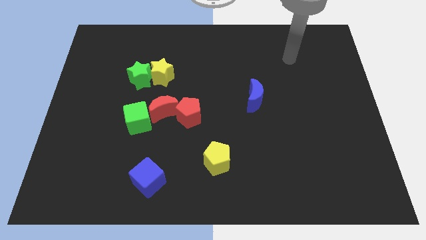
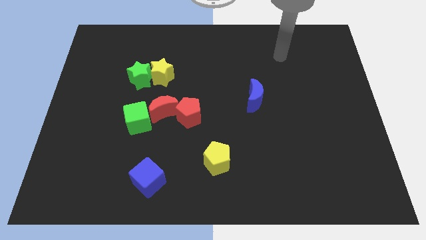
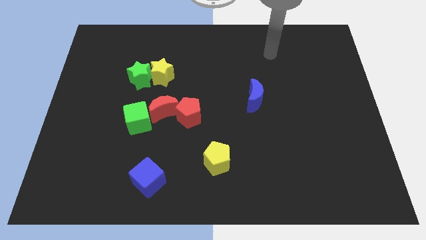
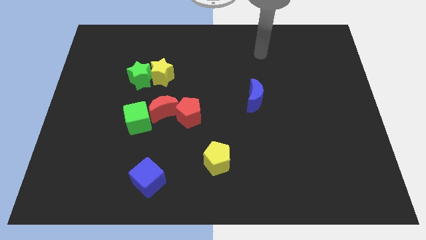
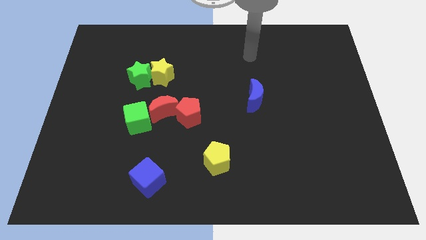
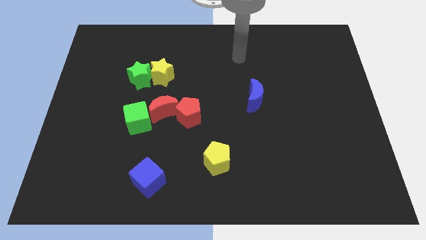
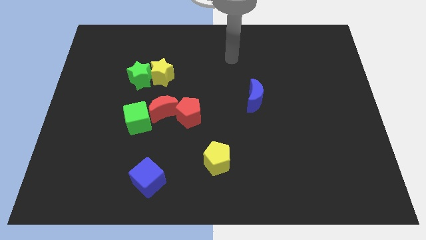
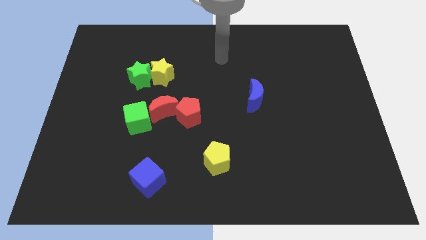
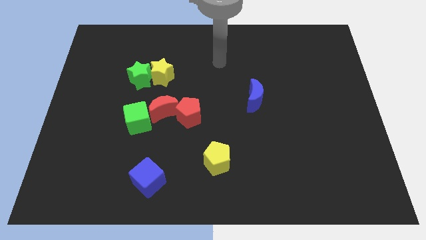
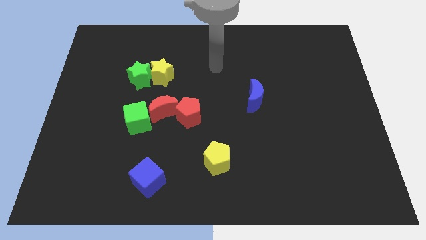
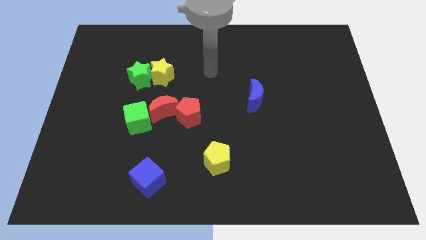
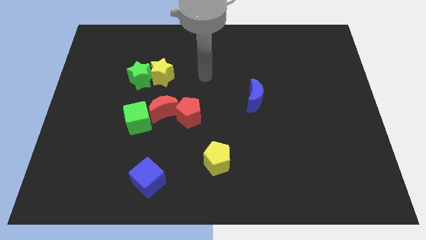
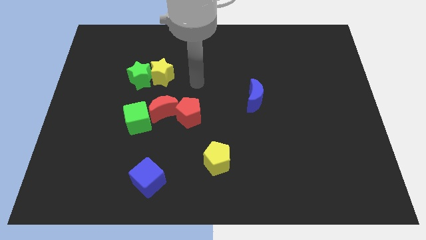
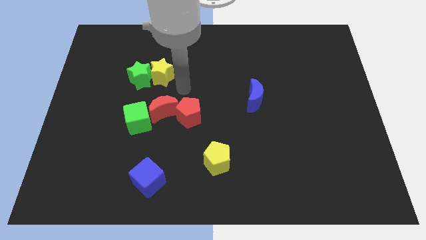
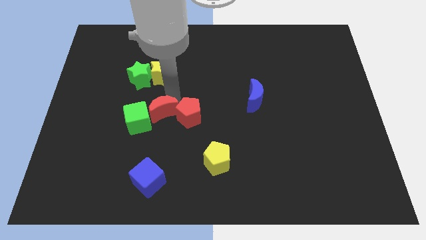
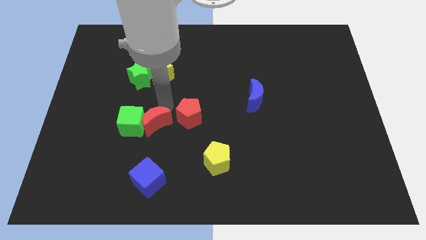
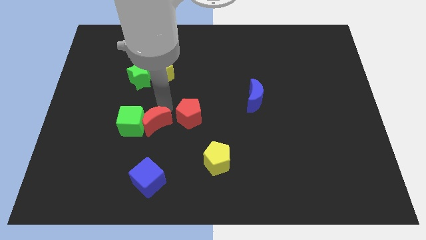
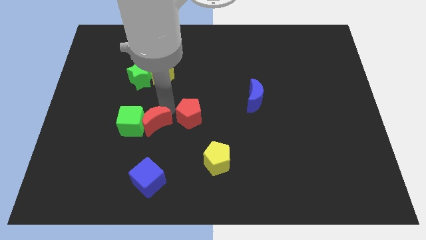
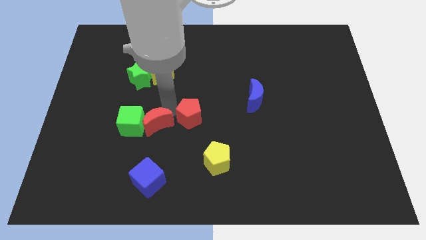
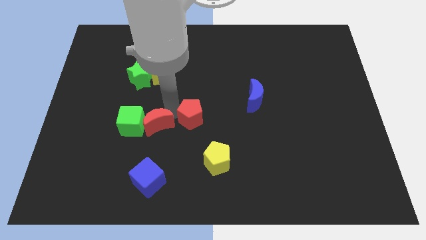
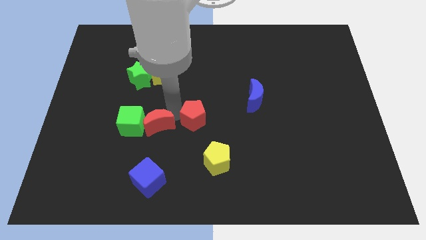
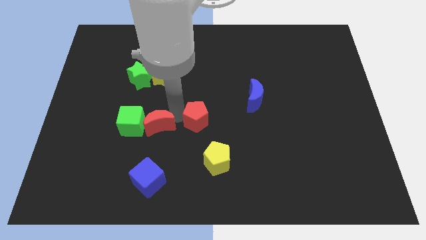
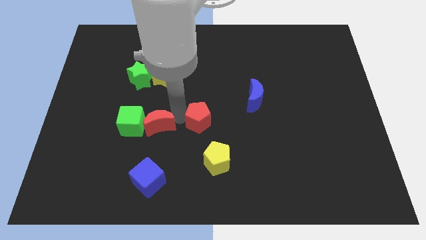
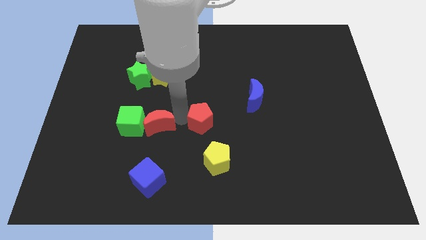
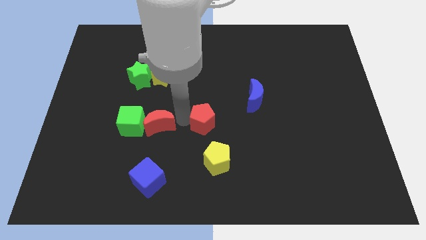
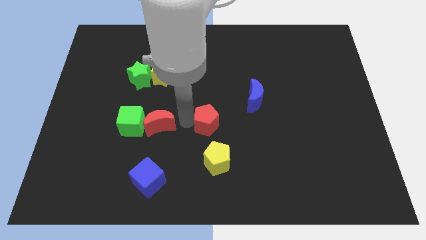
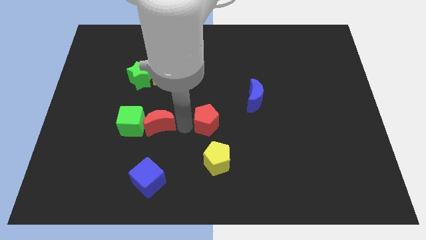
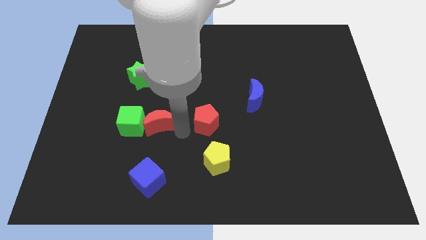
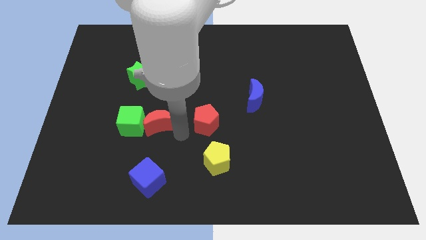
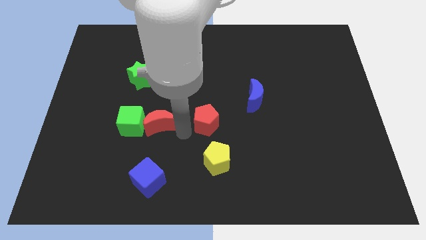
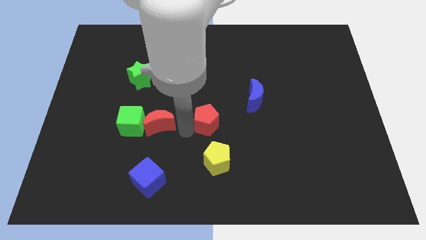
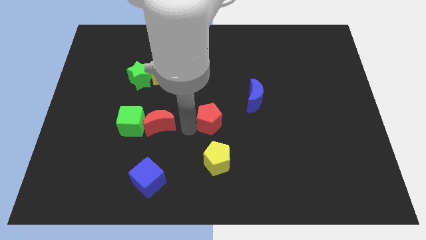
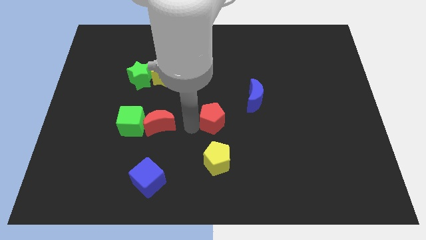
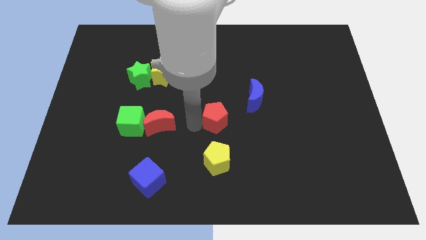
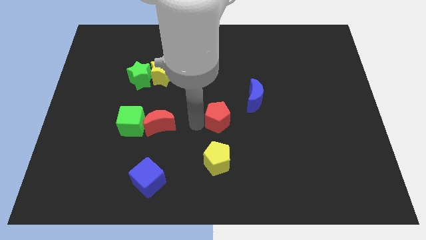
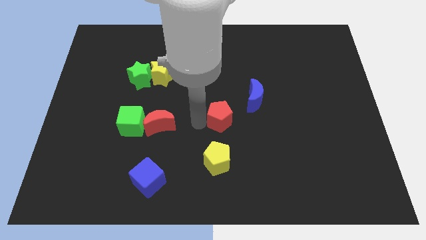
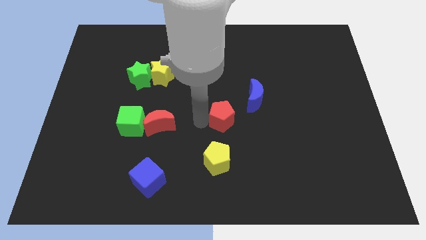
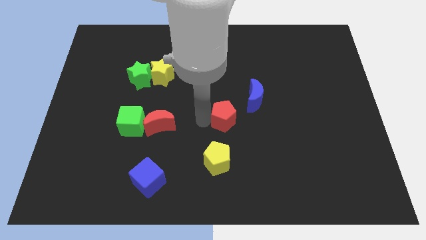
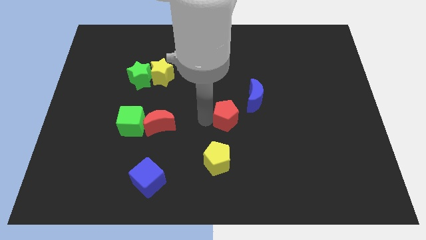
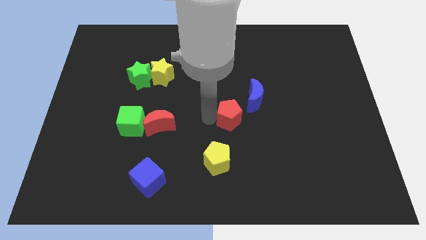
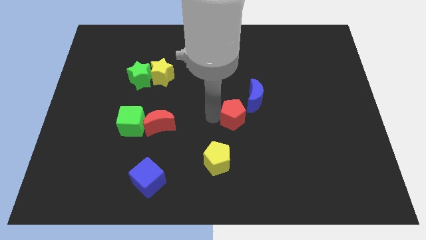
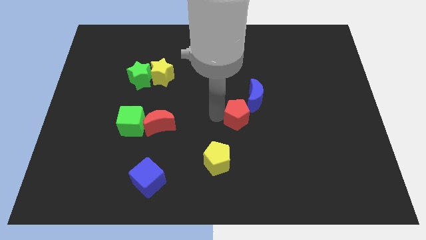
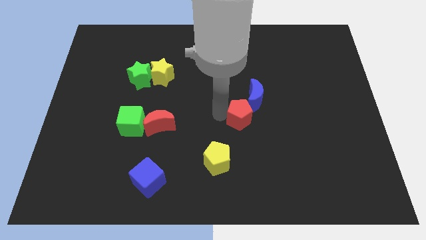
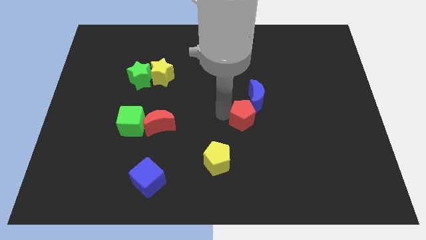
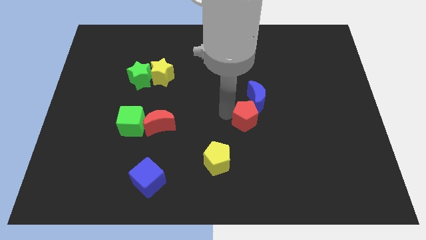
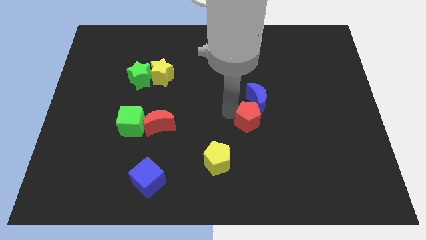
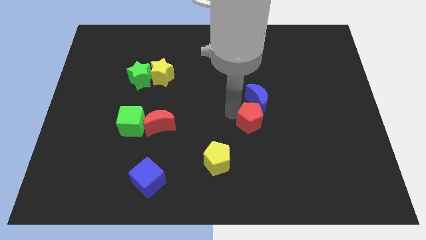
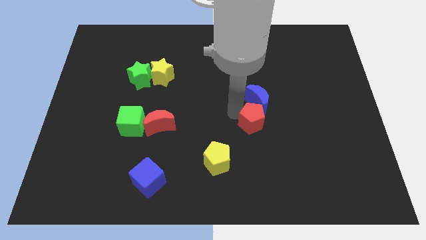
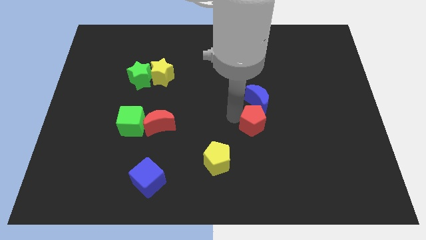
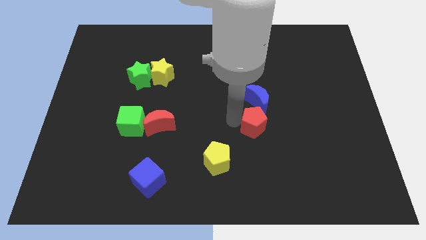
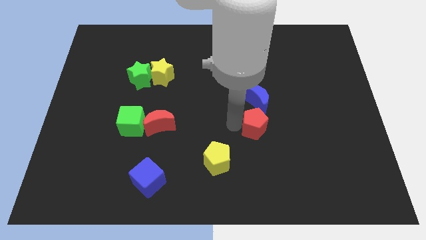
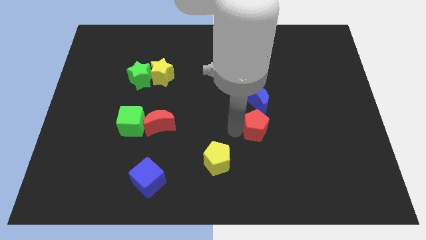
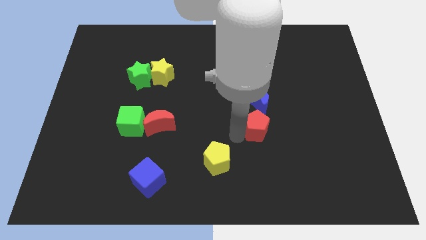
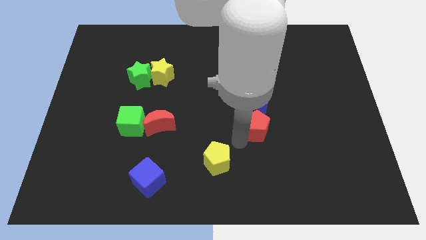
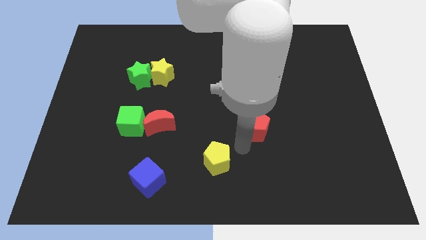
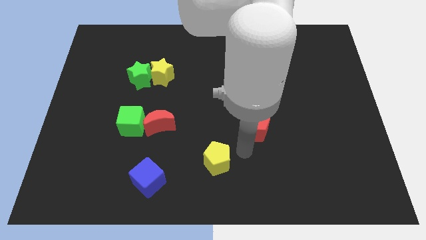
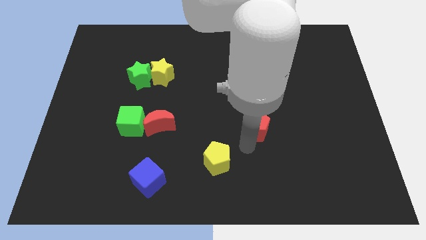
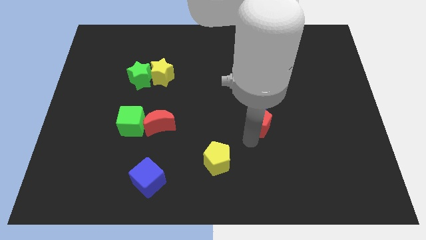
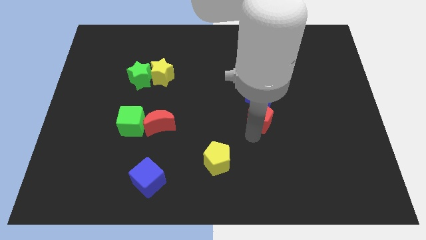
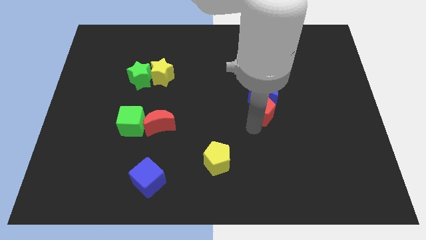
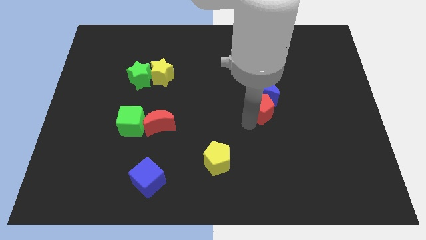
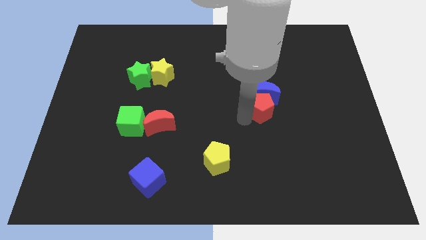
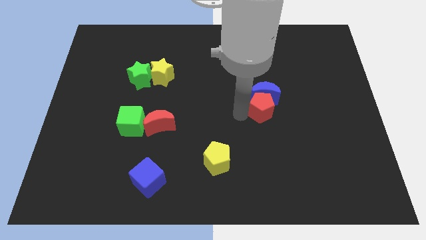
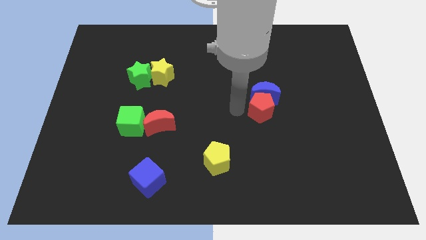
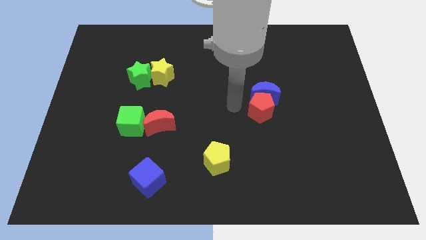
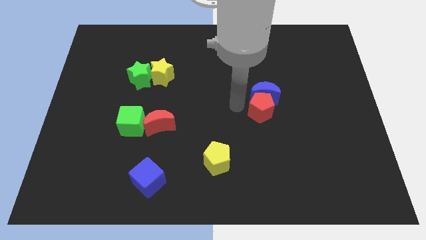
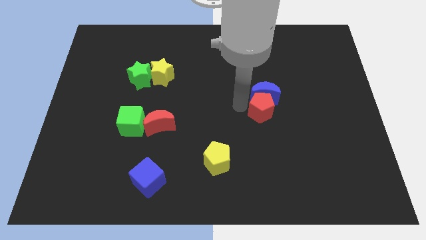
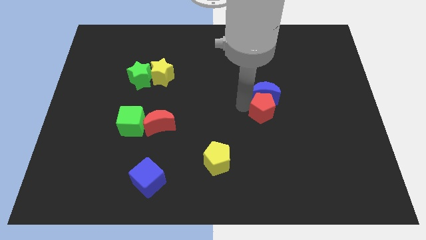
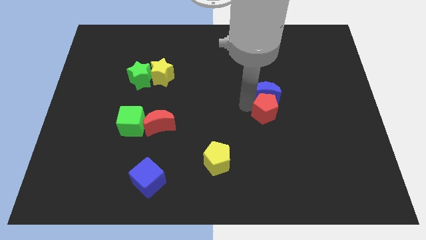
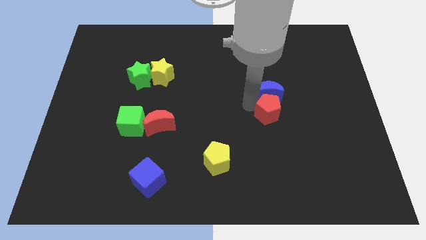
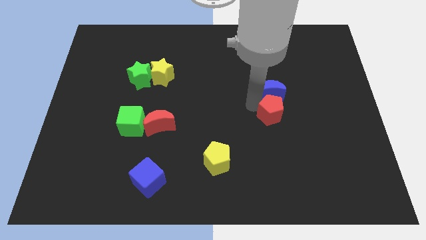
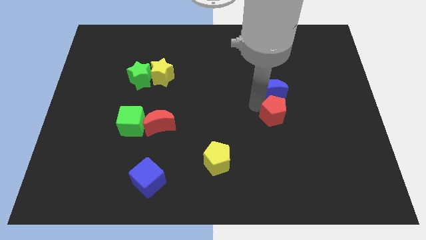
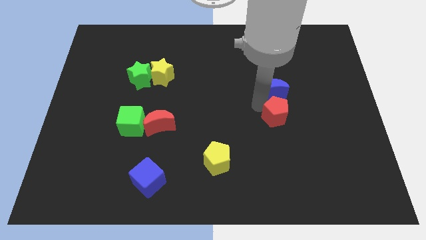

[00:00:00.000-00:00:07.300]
move the red pentagon right

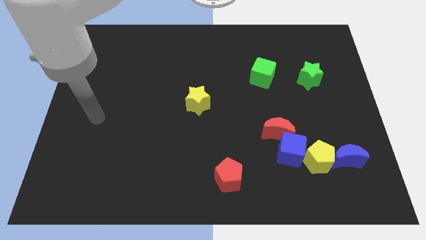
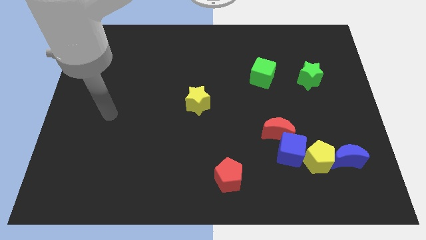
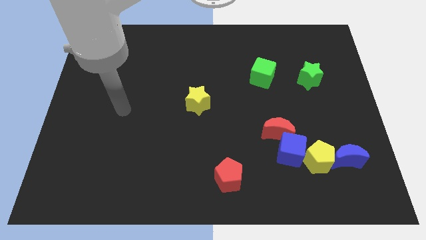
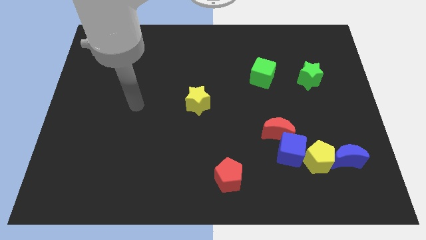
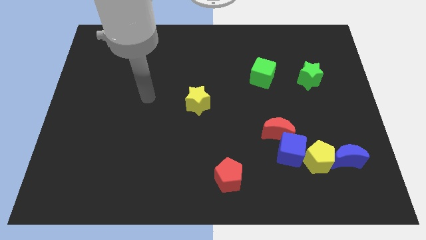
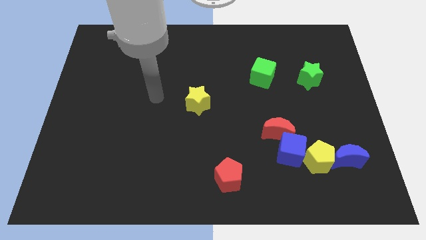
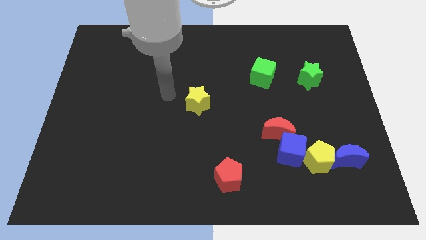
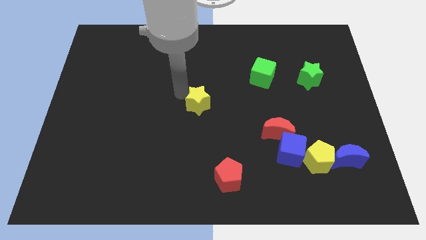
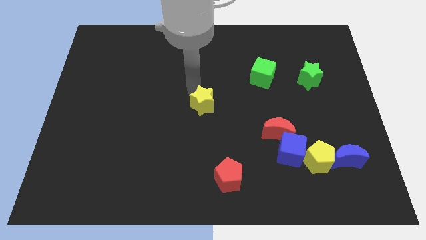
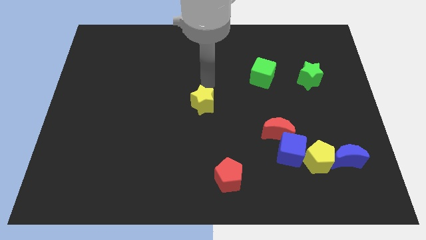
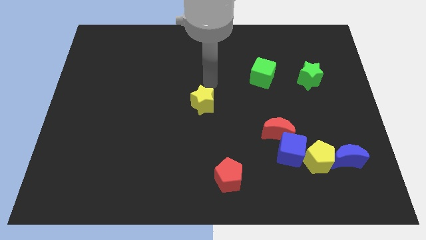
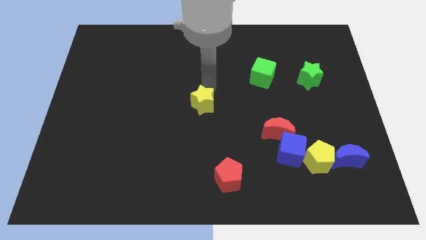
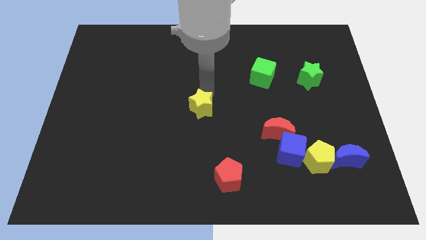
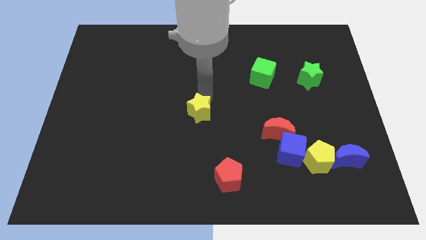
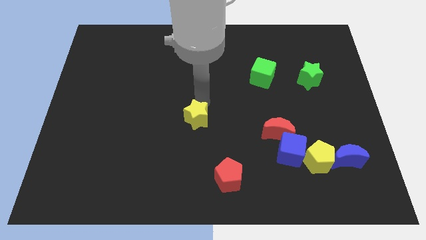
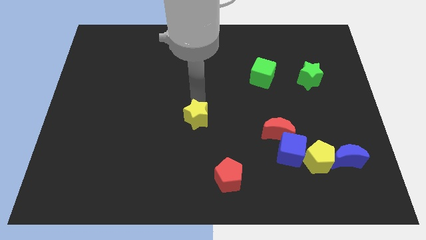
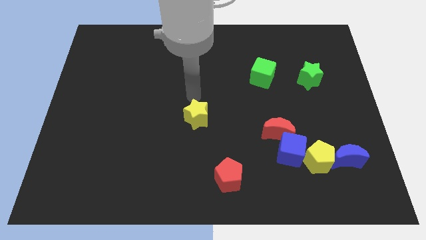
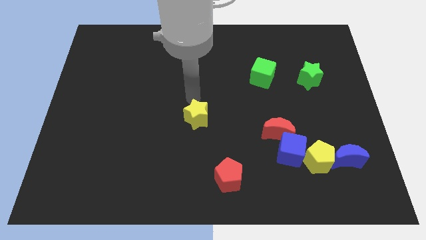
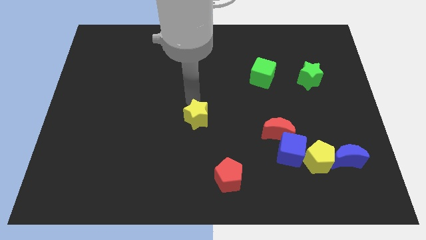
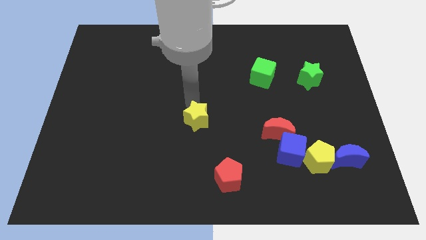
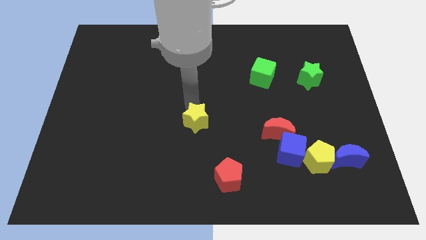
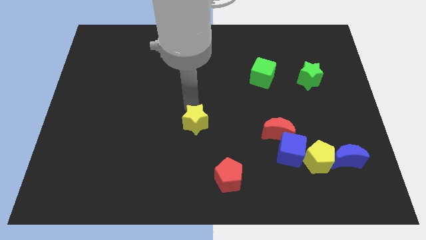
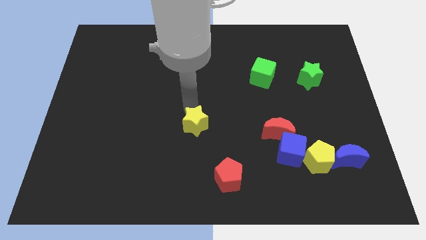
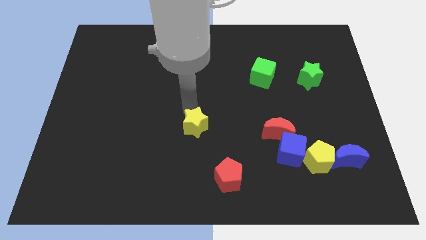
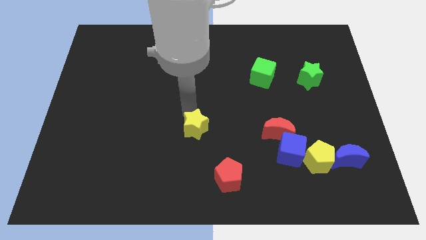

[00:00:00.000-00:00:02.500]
push the yellow star downwards a little bit
